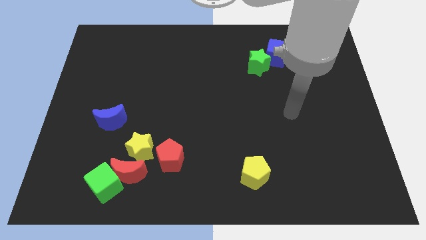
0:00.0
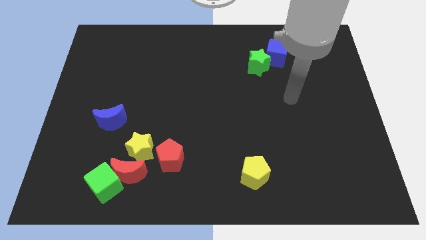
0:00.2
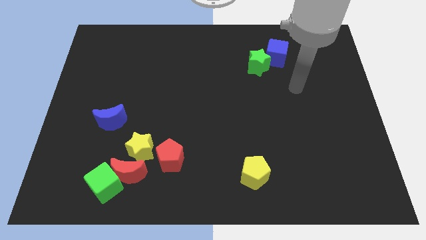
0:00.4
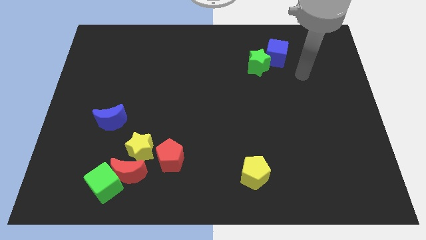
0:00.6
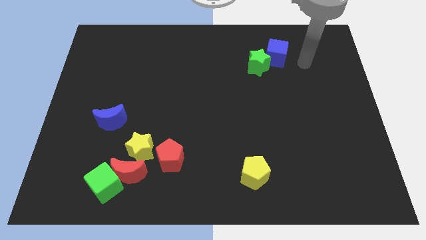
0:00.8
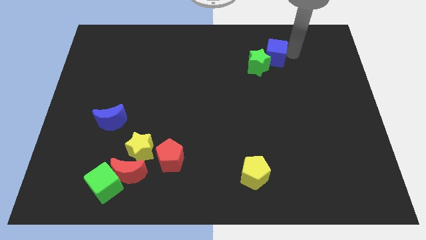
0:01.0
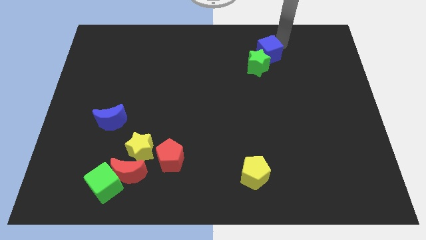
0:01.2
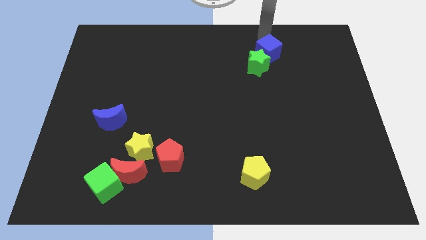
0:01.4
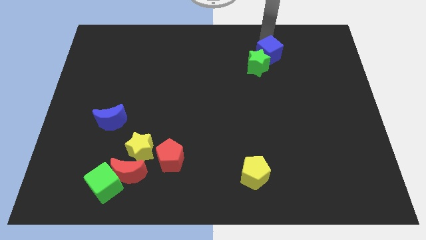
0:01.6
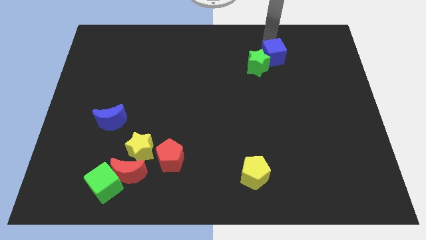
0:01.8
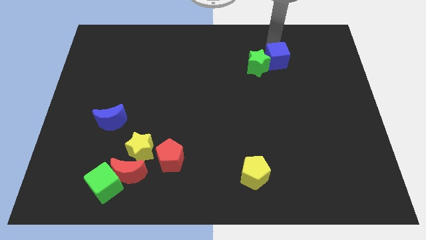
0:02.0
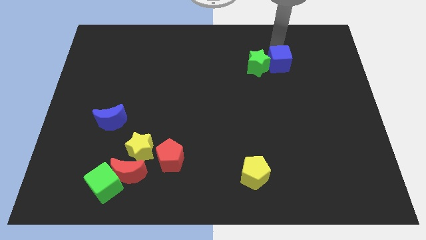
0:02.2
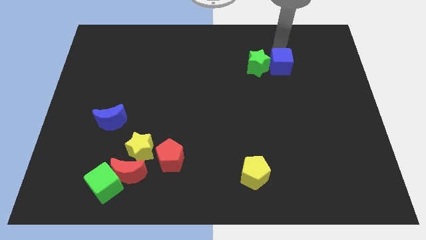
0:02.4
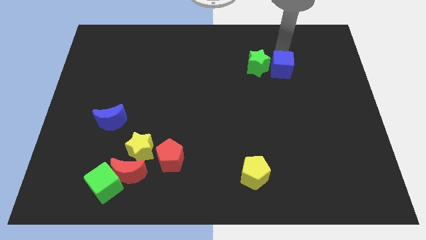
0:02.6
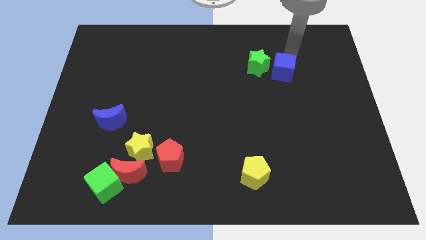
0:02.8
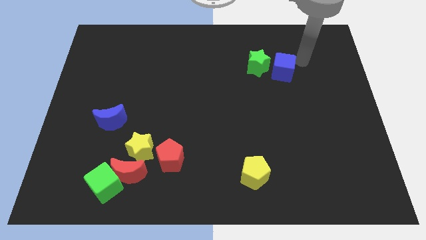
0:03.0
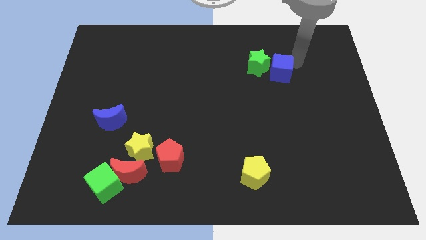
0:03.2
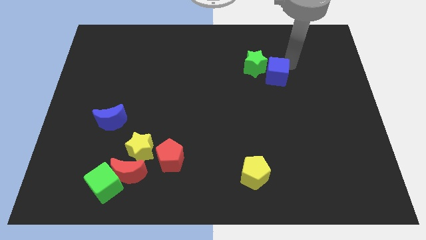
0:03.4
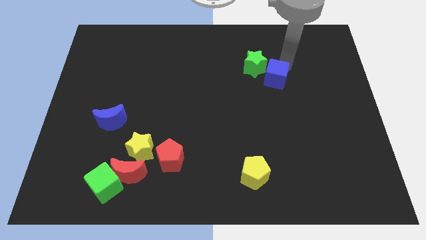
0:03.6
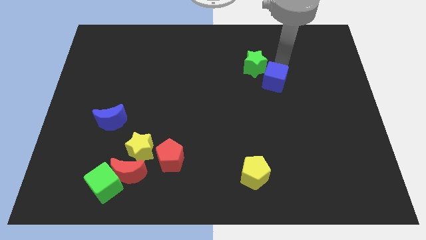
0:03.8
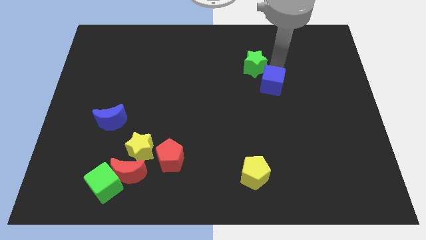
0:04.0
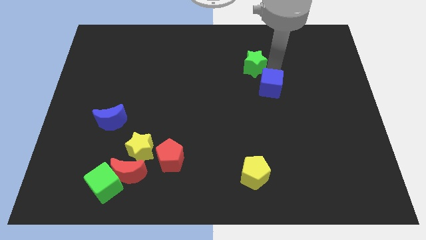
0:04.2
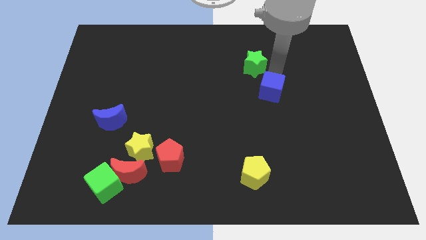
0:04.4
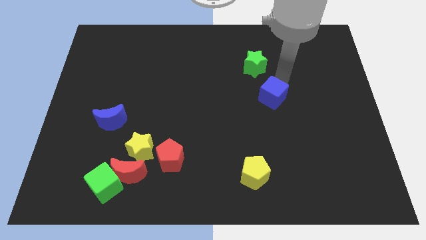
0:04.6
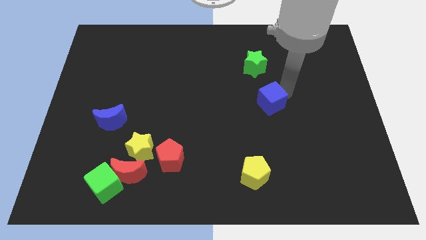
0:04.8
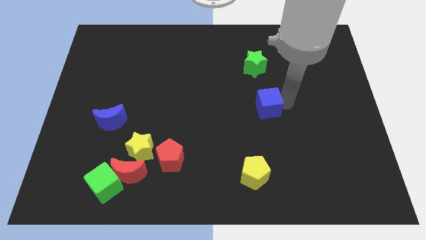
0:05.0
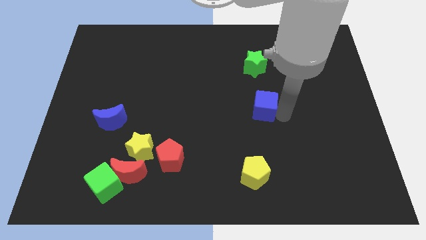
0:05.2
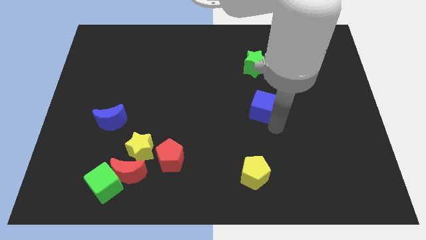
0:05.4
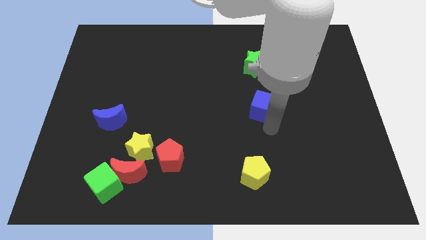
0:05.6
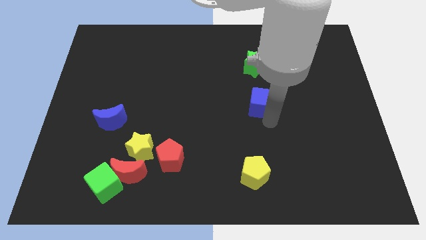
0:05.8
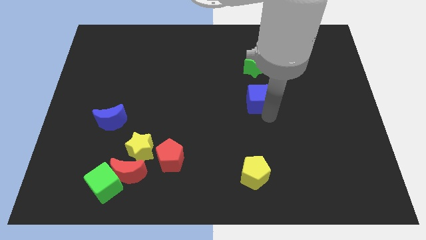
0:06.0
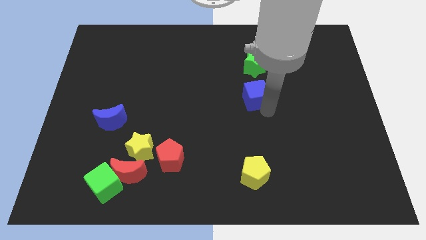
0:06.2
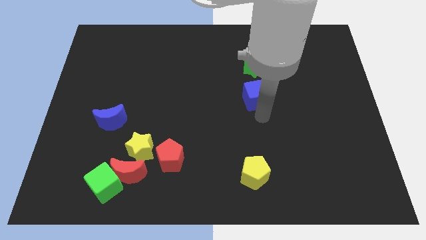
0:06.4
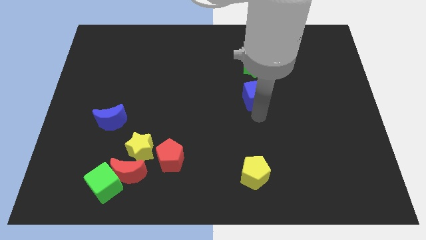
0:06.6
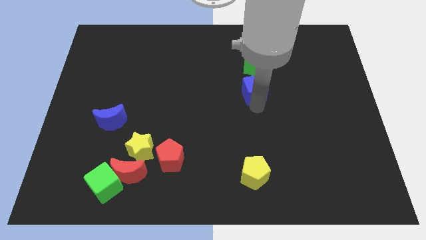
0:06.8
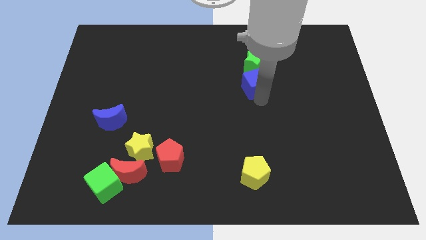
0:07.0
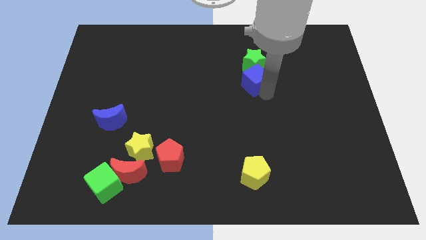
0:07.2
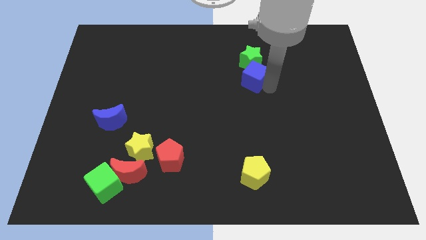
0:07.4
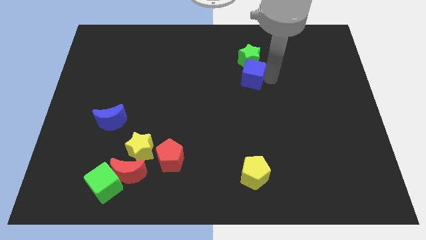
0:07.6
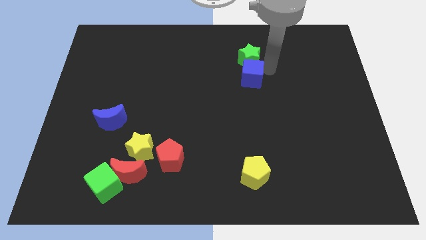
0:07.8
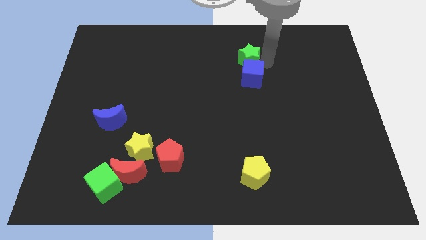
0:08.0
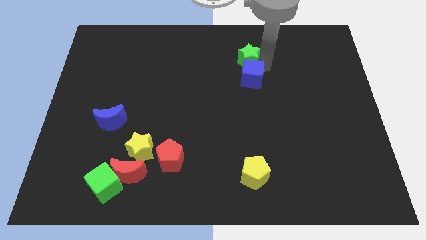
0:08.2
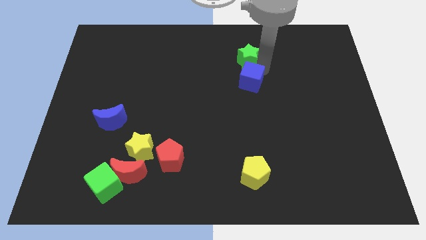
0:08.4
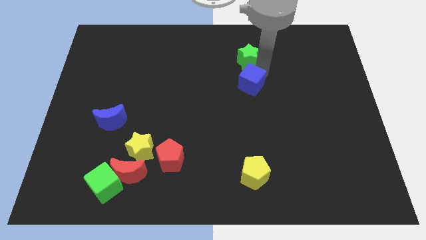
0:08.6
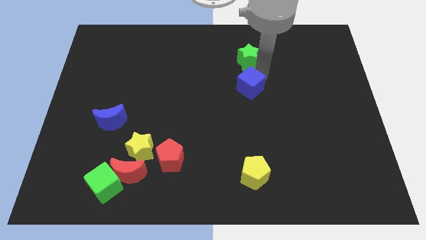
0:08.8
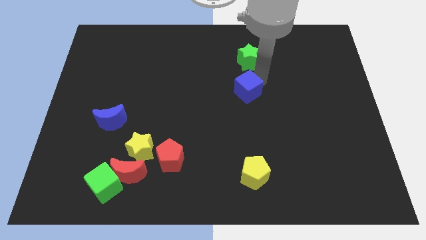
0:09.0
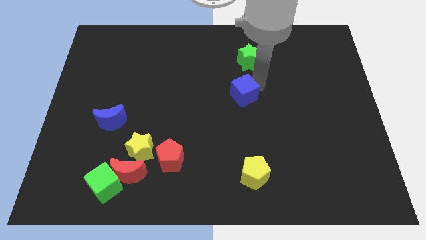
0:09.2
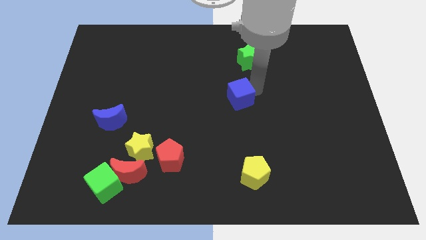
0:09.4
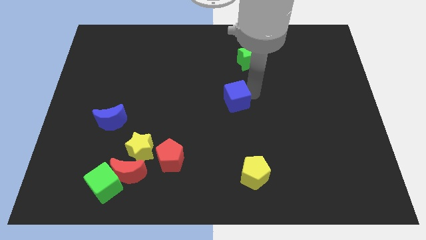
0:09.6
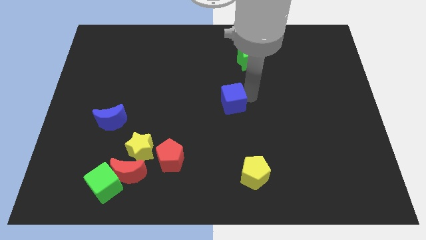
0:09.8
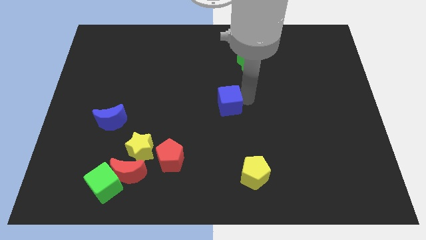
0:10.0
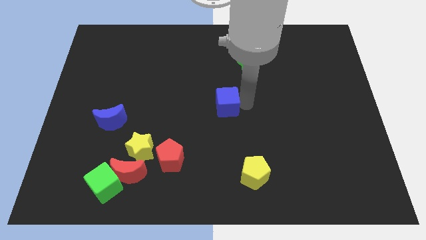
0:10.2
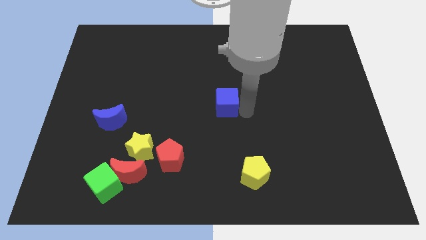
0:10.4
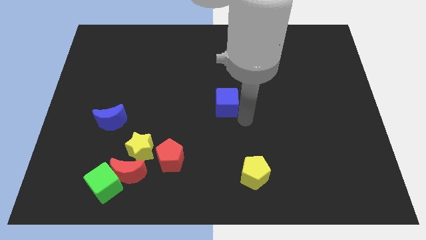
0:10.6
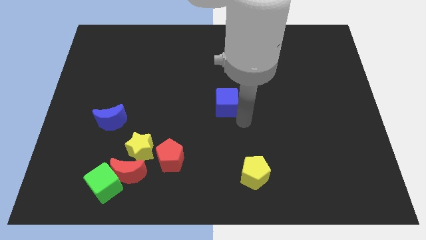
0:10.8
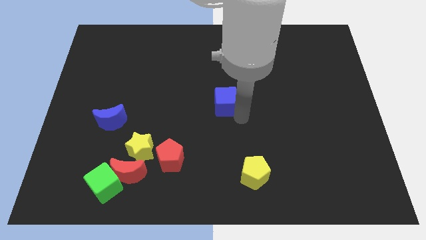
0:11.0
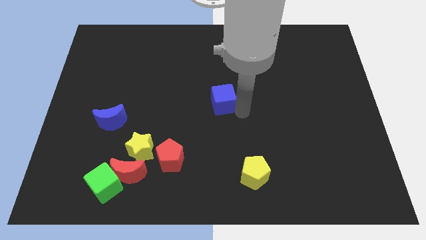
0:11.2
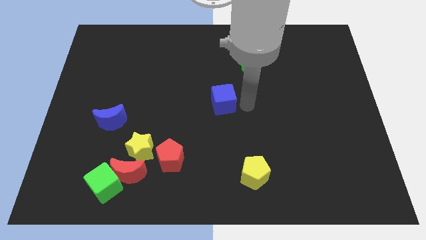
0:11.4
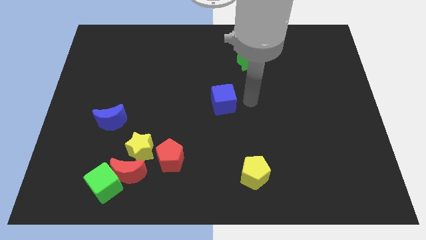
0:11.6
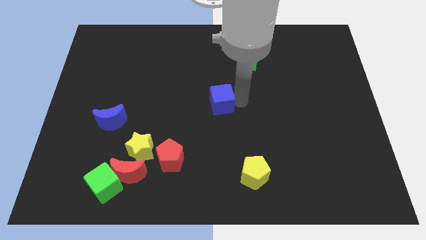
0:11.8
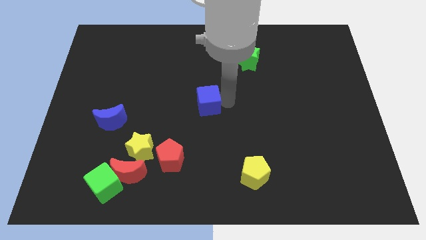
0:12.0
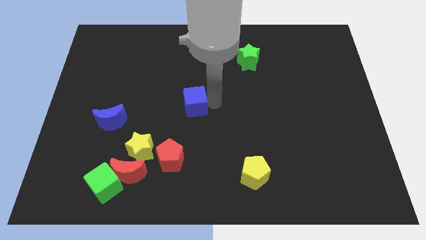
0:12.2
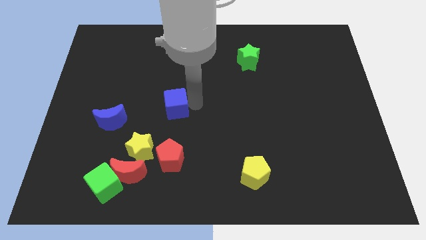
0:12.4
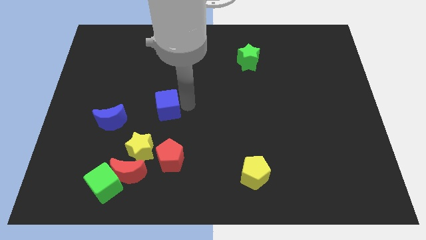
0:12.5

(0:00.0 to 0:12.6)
push the blue cube above the yellow star

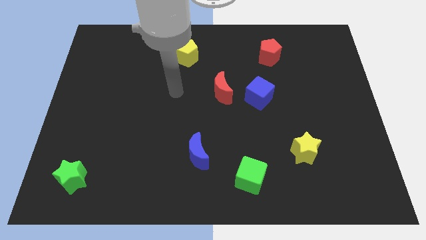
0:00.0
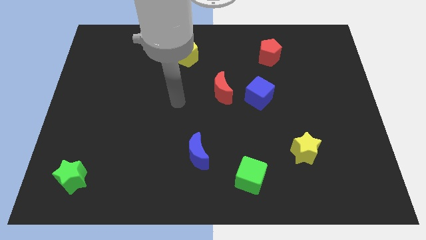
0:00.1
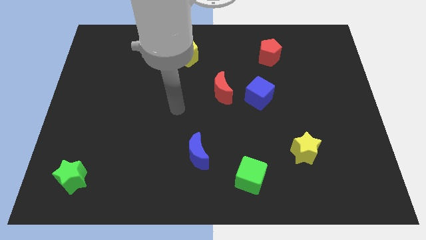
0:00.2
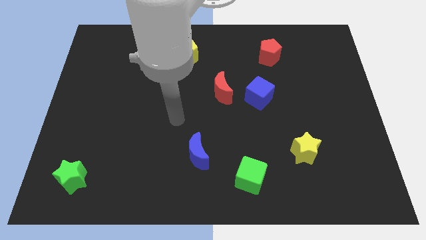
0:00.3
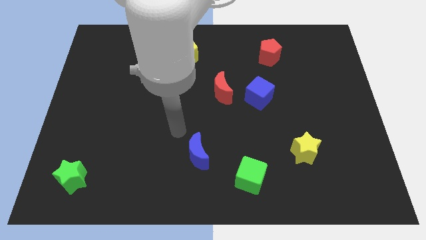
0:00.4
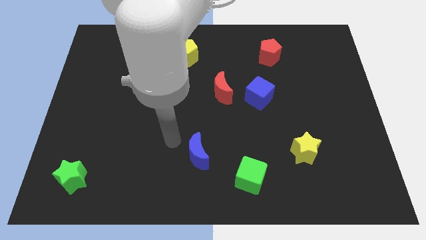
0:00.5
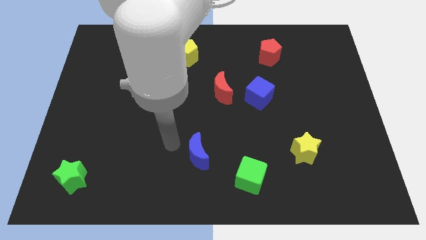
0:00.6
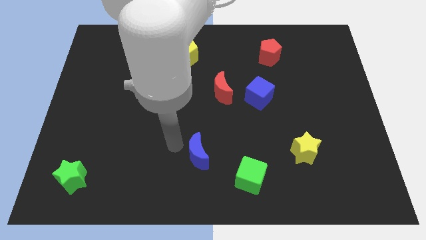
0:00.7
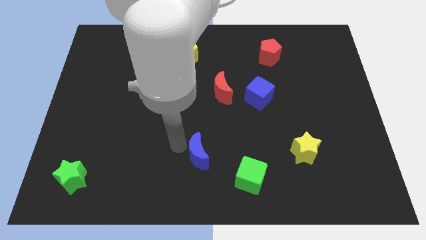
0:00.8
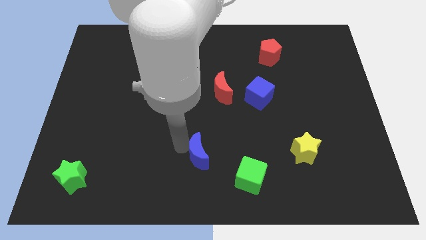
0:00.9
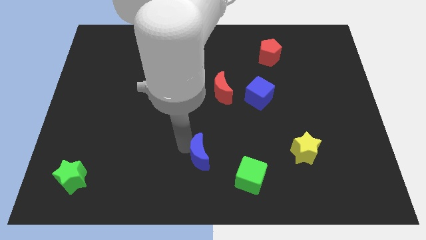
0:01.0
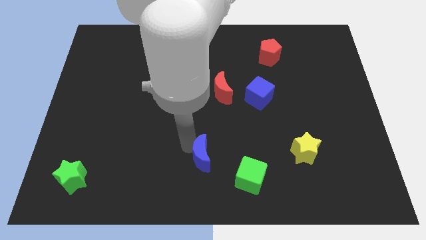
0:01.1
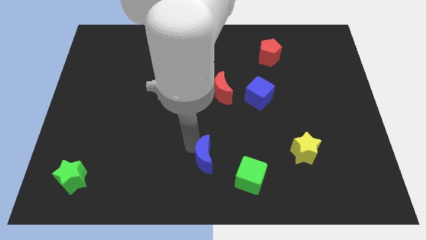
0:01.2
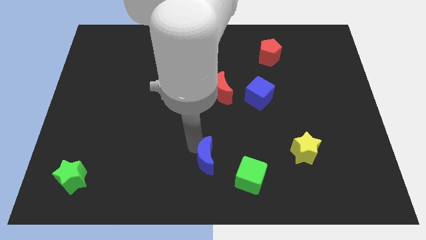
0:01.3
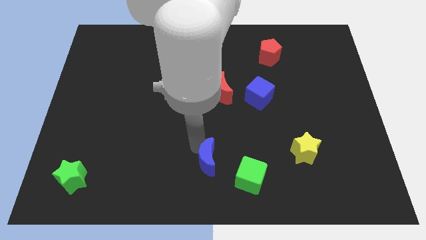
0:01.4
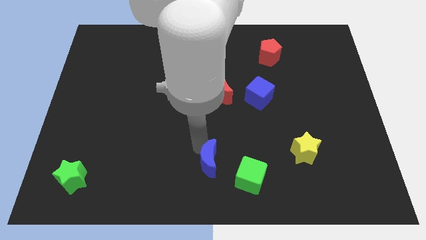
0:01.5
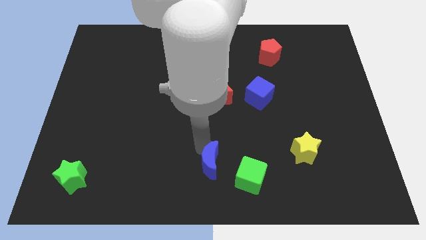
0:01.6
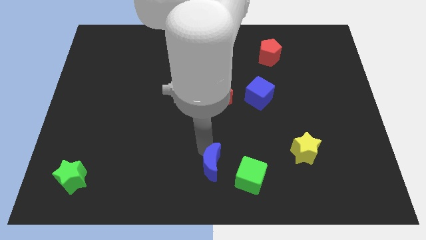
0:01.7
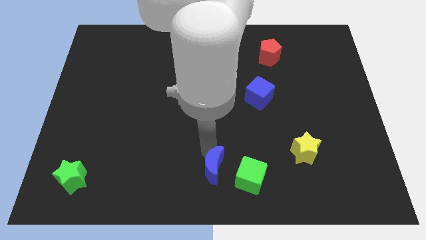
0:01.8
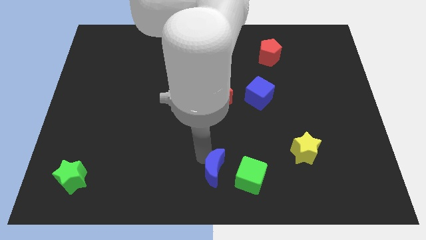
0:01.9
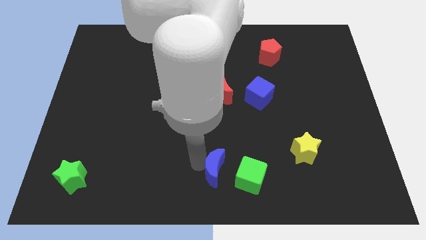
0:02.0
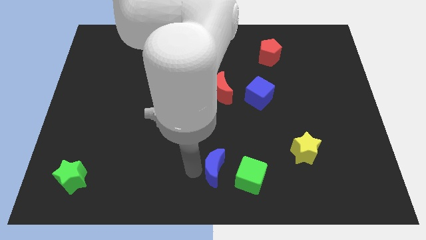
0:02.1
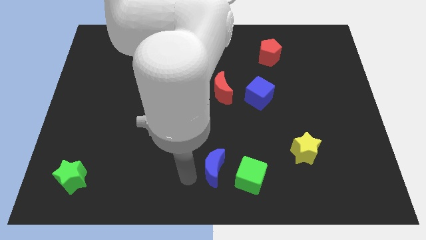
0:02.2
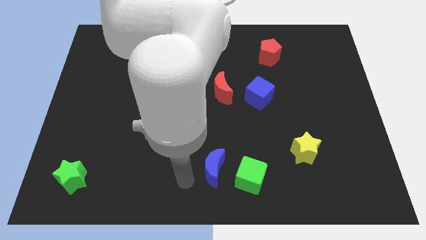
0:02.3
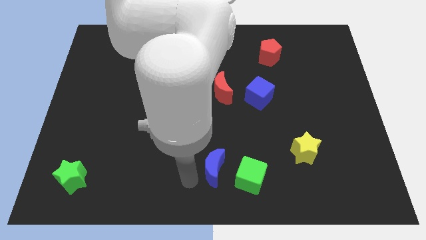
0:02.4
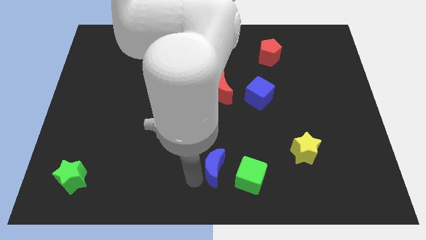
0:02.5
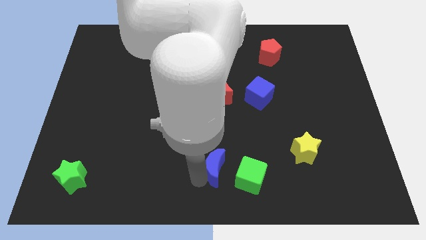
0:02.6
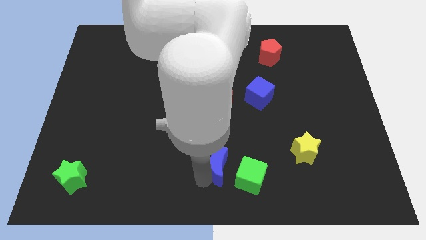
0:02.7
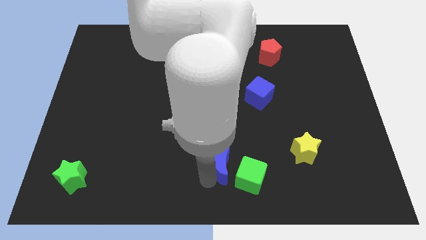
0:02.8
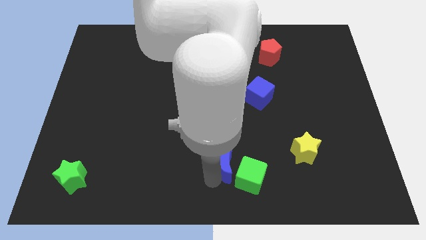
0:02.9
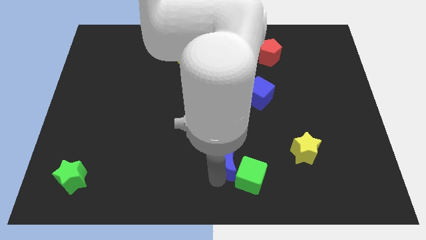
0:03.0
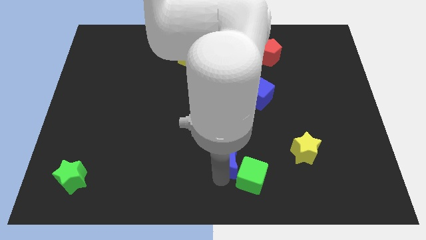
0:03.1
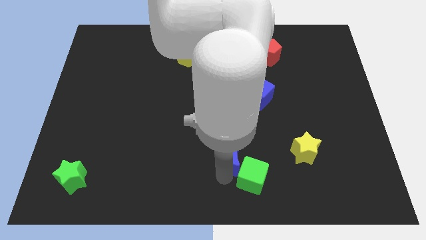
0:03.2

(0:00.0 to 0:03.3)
slide the blue moon just left of the yellow star
